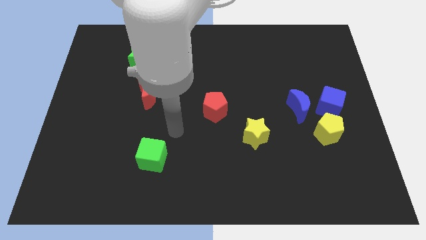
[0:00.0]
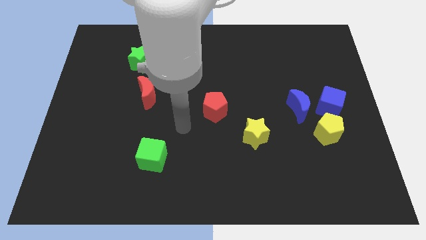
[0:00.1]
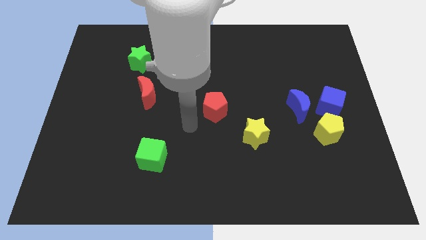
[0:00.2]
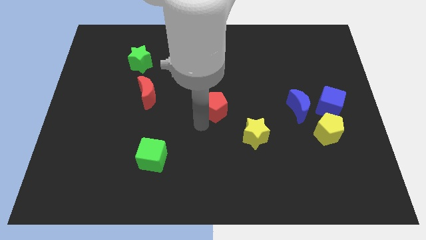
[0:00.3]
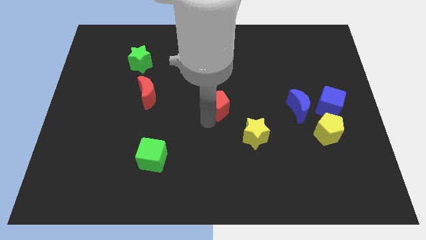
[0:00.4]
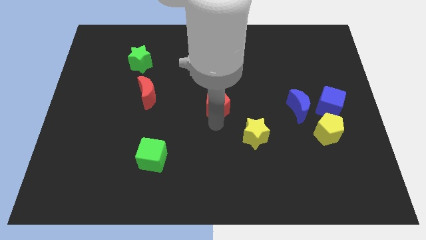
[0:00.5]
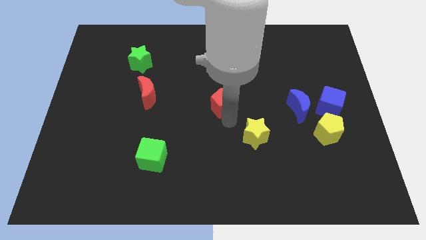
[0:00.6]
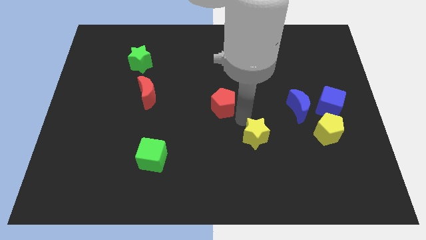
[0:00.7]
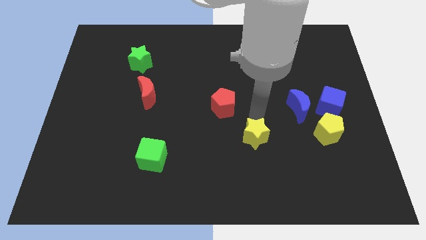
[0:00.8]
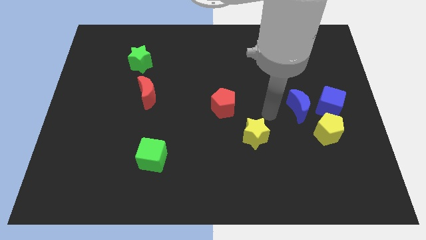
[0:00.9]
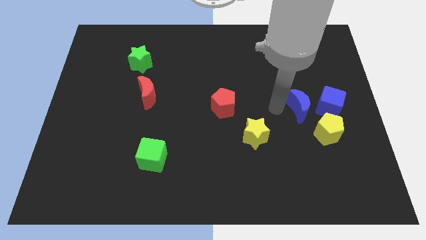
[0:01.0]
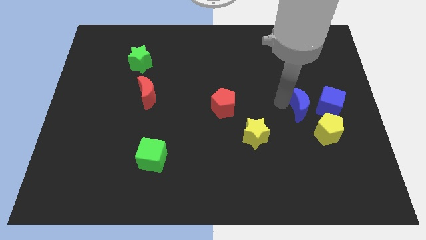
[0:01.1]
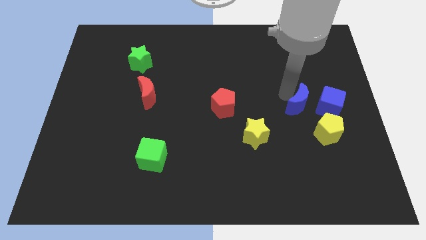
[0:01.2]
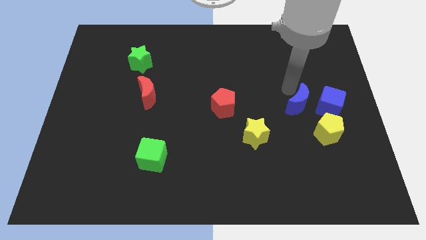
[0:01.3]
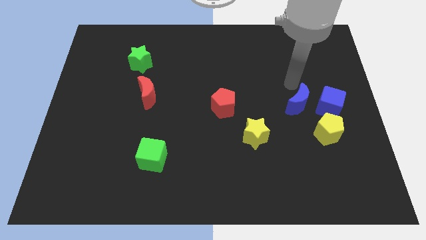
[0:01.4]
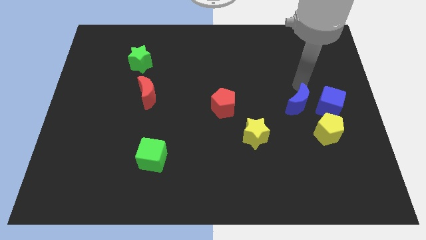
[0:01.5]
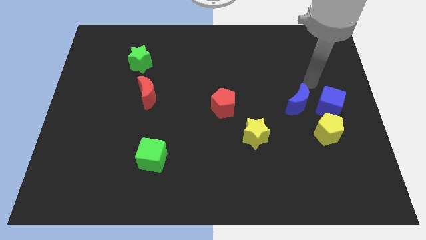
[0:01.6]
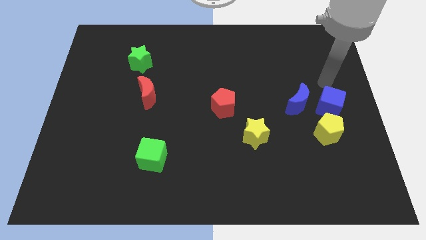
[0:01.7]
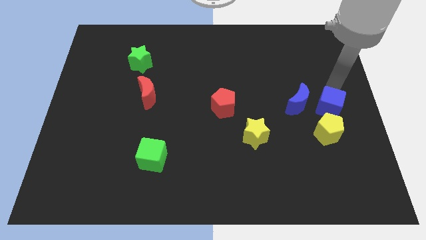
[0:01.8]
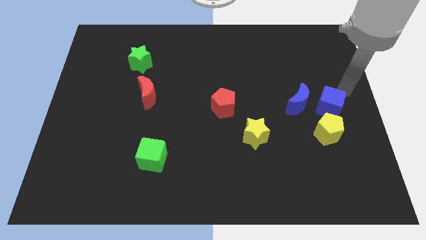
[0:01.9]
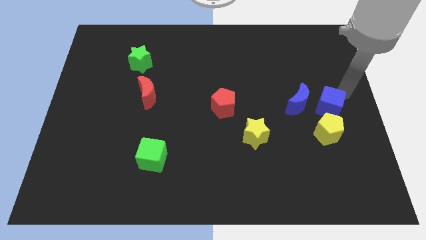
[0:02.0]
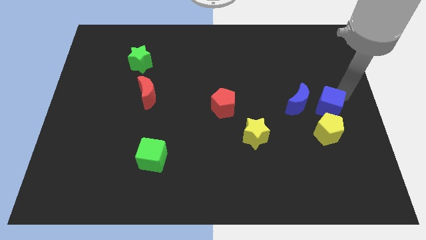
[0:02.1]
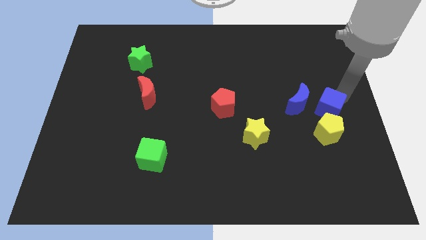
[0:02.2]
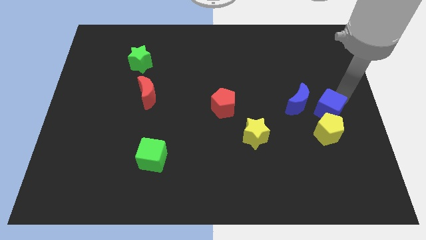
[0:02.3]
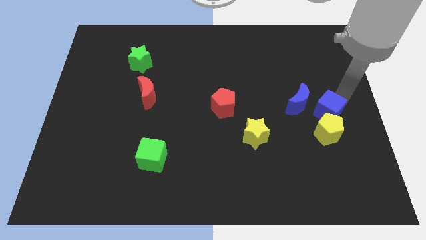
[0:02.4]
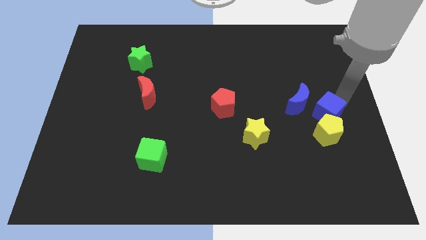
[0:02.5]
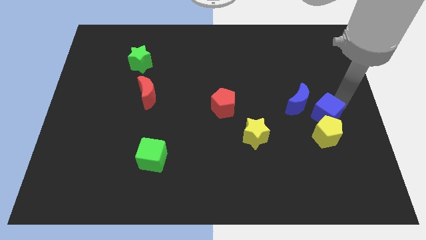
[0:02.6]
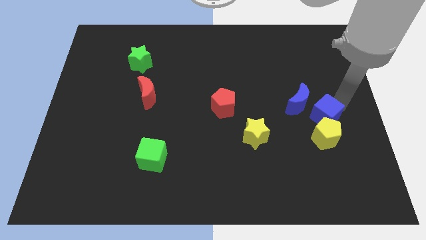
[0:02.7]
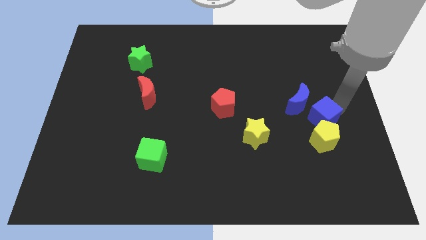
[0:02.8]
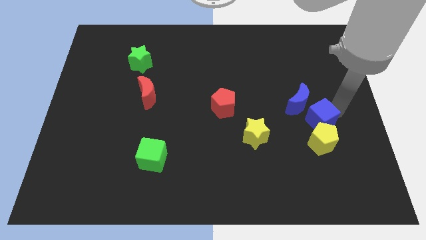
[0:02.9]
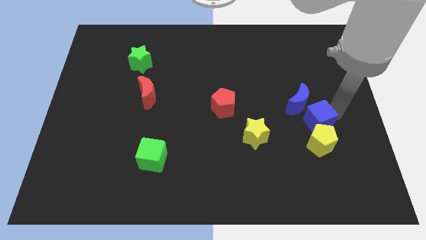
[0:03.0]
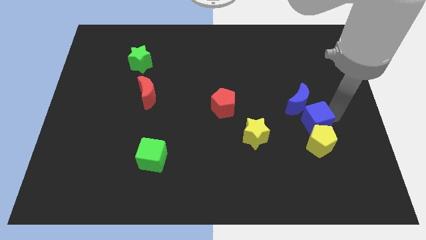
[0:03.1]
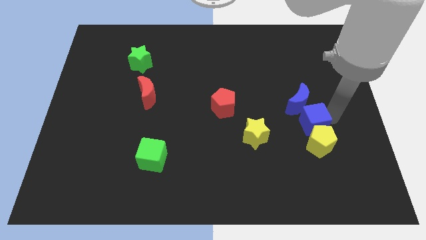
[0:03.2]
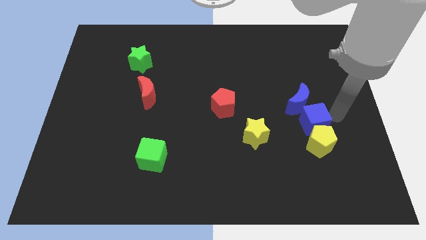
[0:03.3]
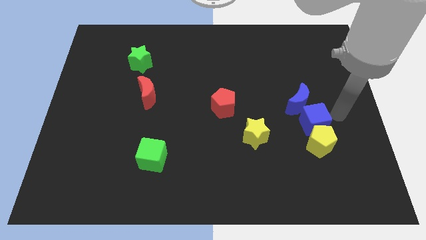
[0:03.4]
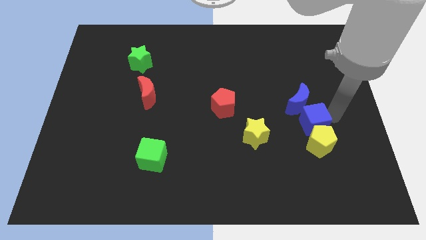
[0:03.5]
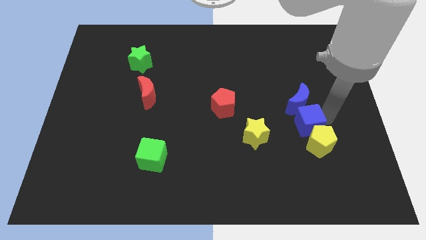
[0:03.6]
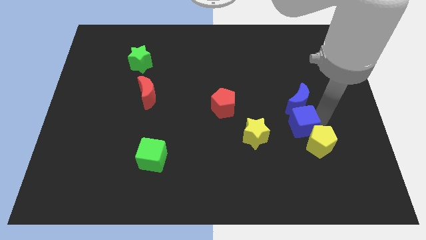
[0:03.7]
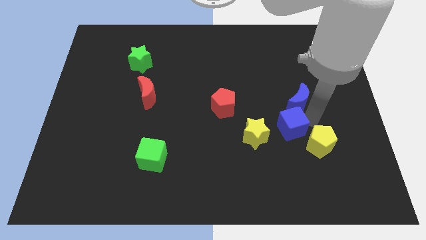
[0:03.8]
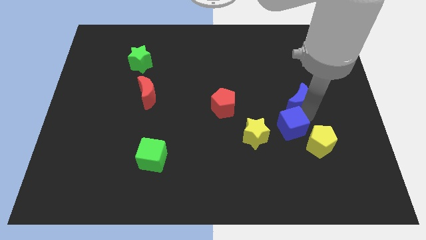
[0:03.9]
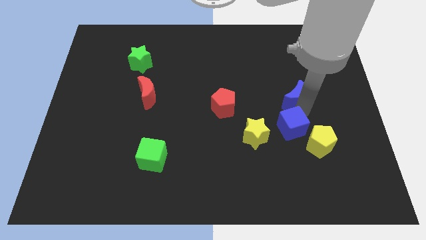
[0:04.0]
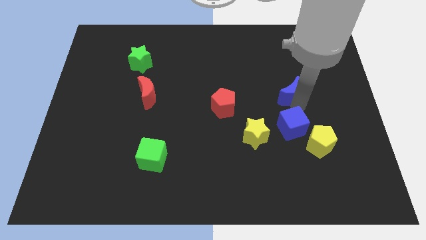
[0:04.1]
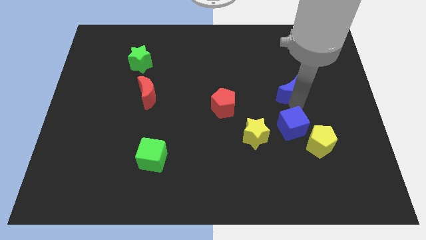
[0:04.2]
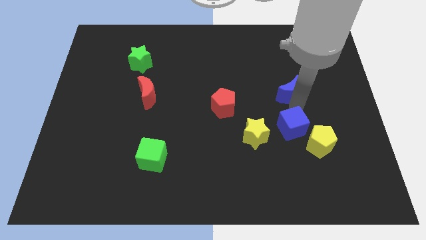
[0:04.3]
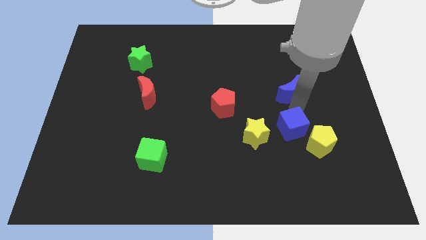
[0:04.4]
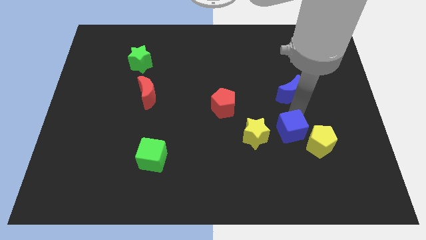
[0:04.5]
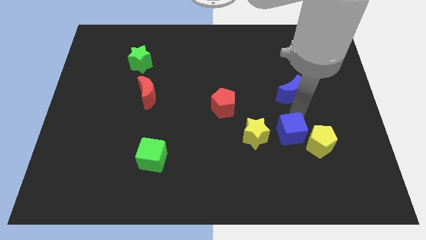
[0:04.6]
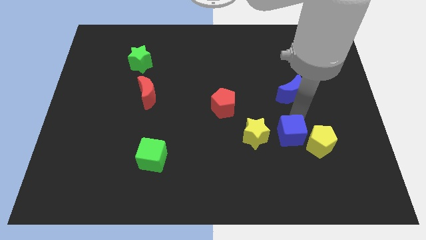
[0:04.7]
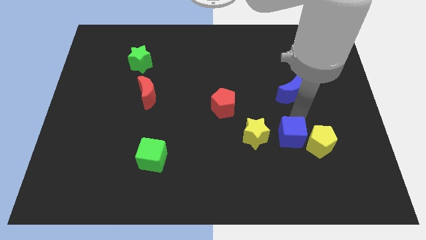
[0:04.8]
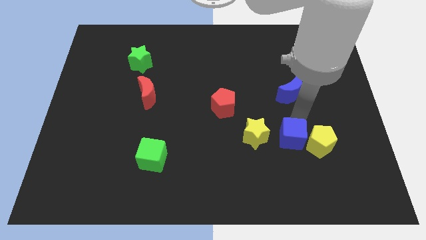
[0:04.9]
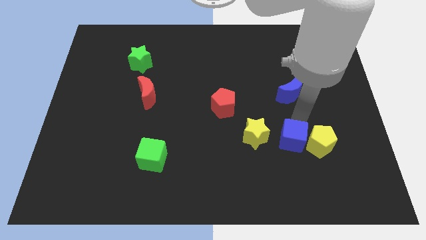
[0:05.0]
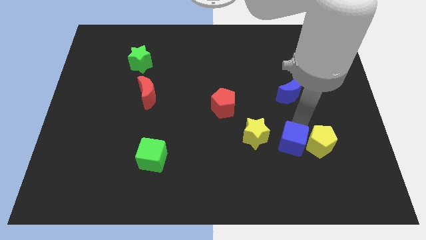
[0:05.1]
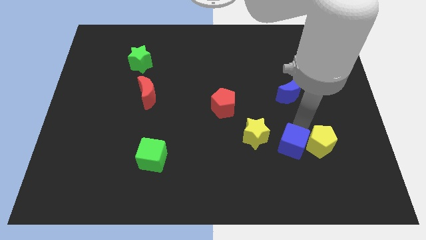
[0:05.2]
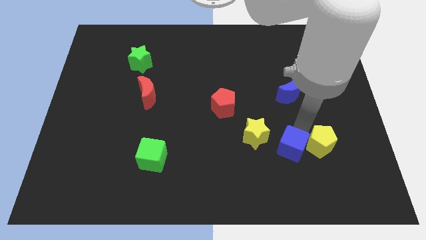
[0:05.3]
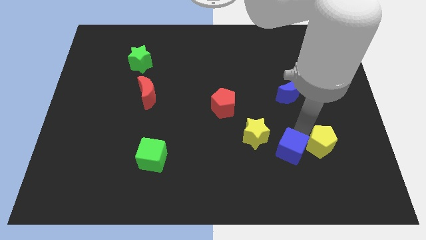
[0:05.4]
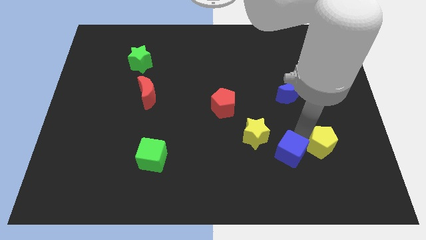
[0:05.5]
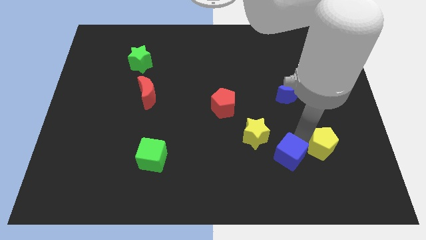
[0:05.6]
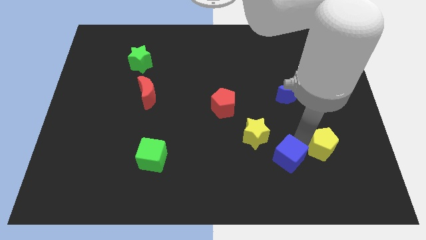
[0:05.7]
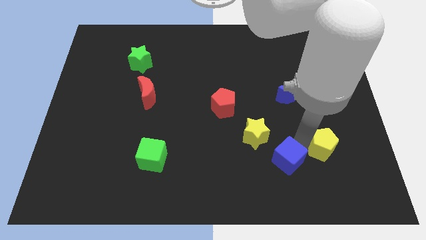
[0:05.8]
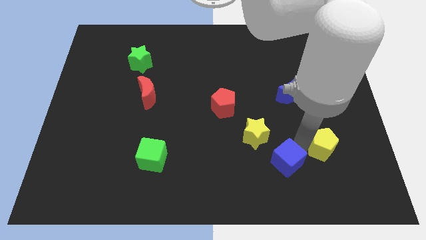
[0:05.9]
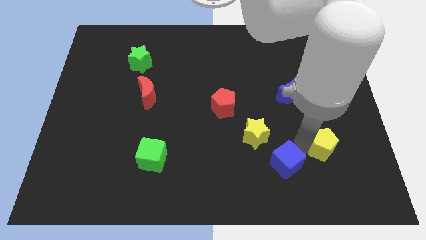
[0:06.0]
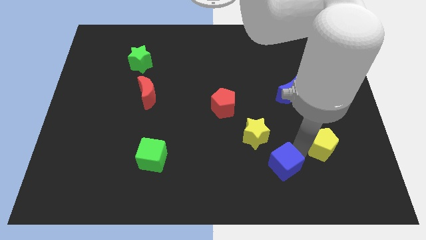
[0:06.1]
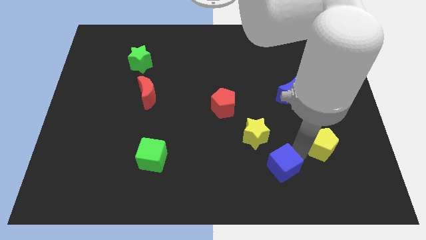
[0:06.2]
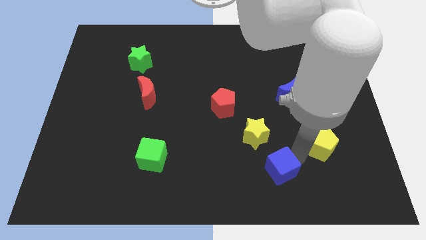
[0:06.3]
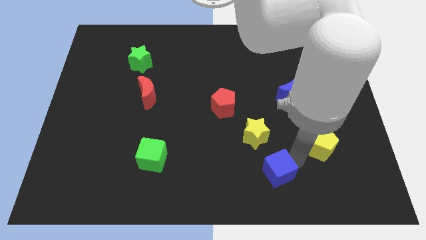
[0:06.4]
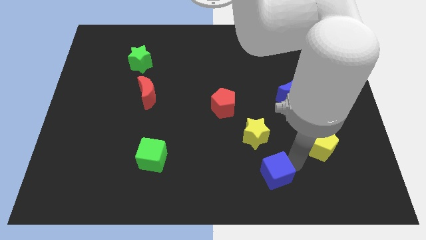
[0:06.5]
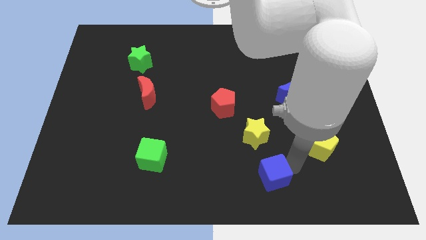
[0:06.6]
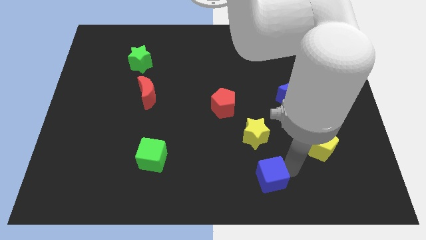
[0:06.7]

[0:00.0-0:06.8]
slide the blue cube to the bottom side

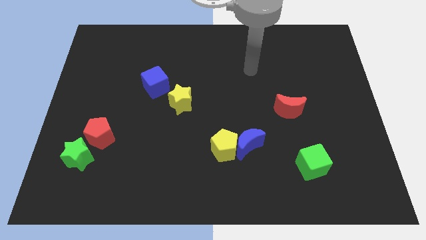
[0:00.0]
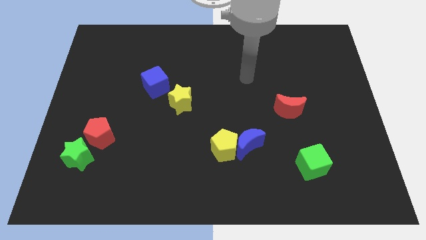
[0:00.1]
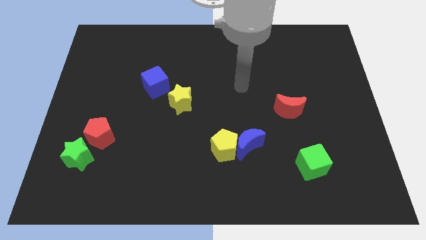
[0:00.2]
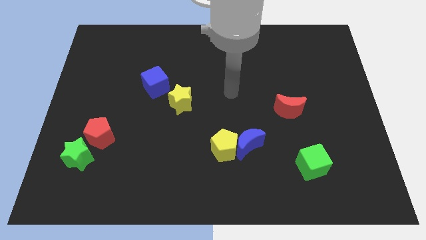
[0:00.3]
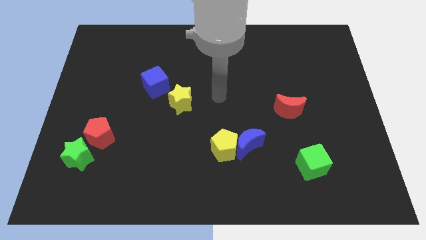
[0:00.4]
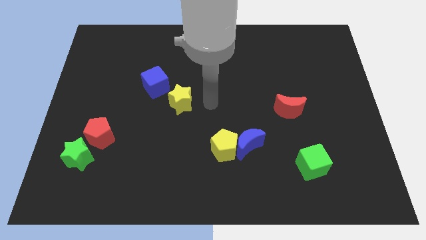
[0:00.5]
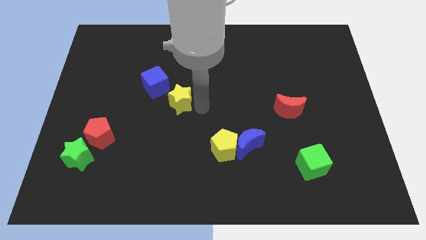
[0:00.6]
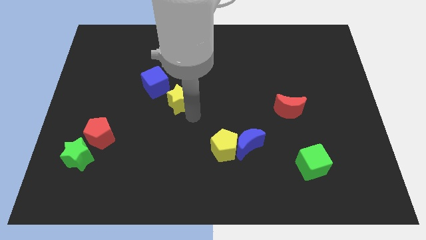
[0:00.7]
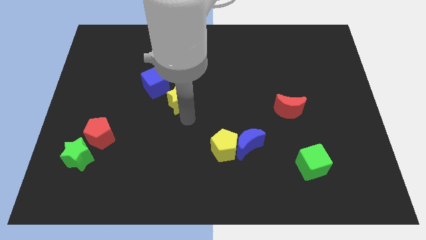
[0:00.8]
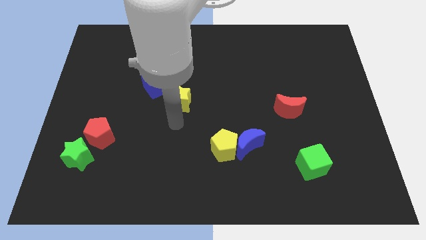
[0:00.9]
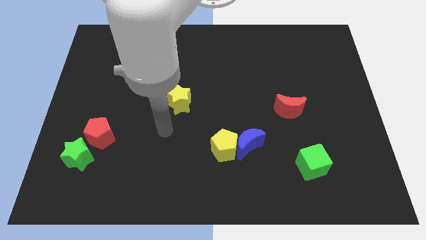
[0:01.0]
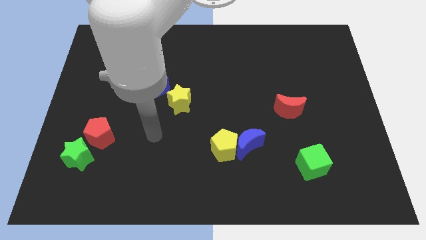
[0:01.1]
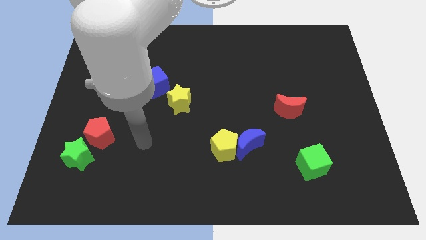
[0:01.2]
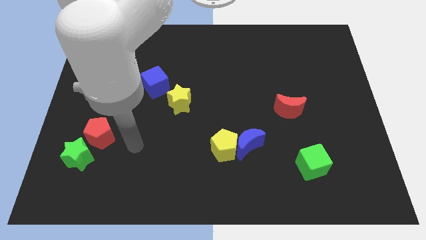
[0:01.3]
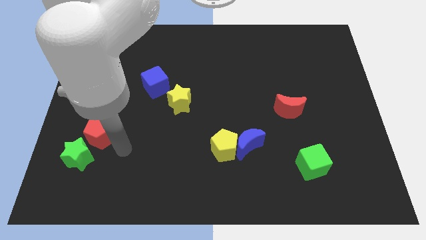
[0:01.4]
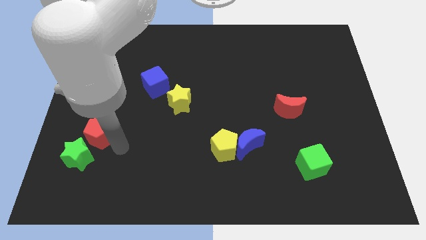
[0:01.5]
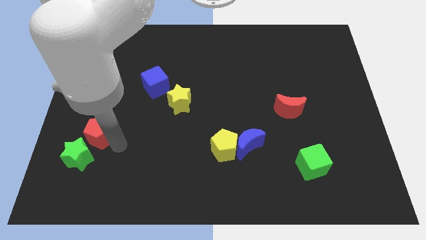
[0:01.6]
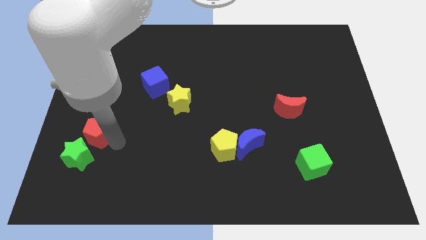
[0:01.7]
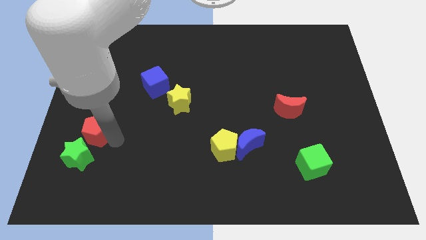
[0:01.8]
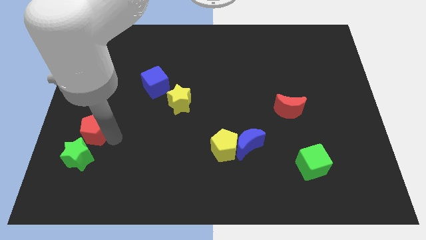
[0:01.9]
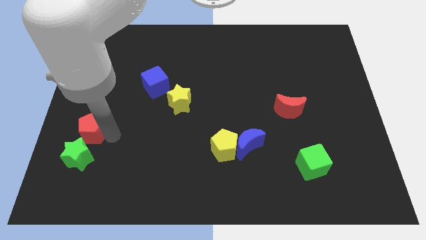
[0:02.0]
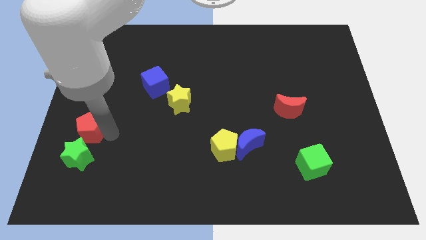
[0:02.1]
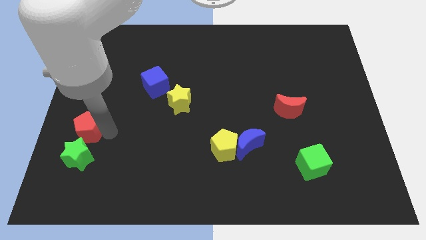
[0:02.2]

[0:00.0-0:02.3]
slide the red pentagon to the left side of the board
